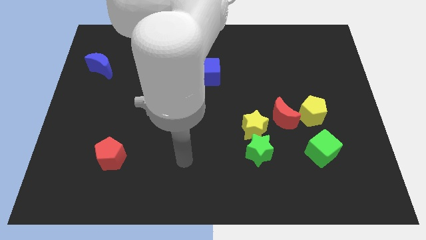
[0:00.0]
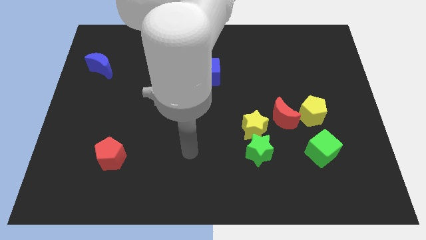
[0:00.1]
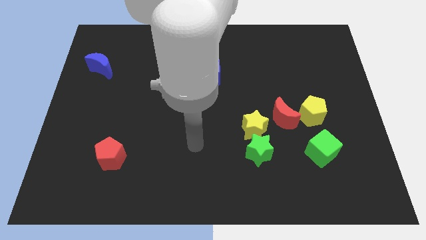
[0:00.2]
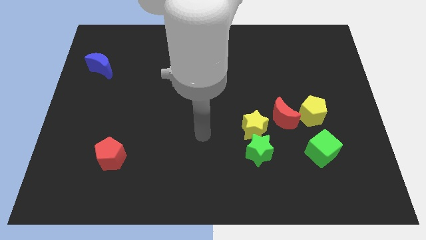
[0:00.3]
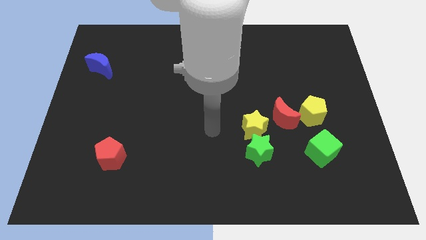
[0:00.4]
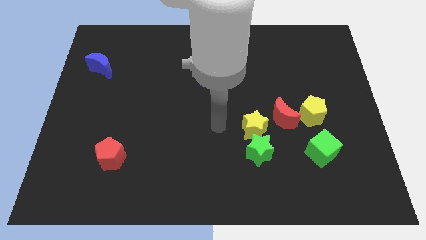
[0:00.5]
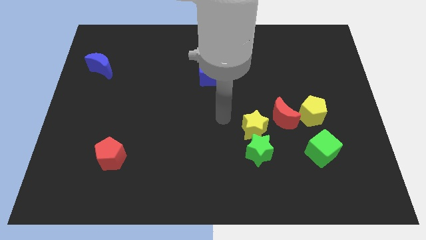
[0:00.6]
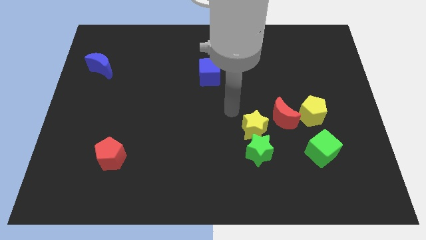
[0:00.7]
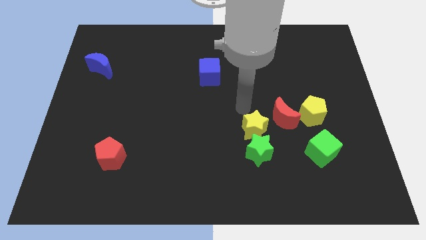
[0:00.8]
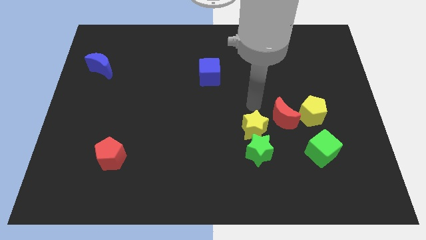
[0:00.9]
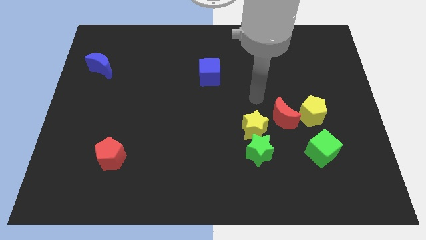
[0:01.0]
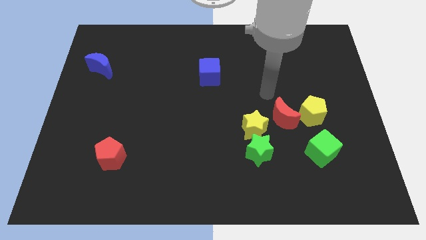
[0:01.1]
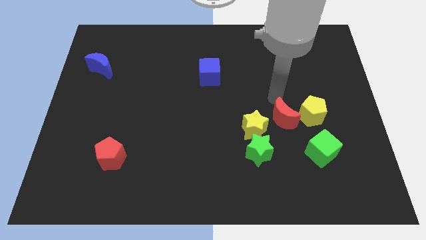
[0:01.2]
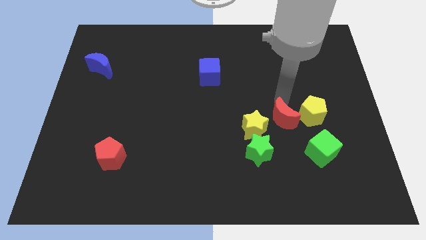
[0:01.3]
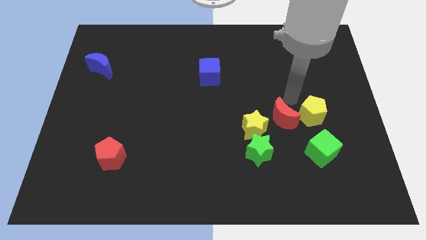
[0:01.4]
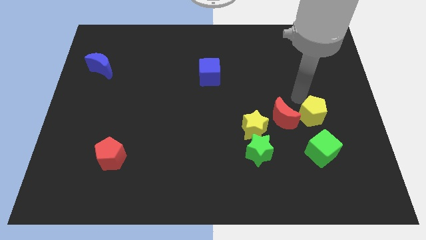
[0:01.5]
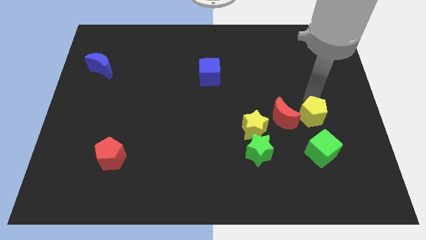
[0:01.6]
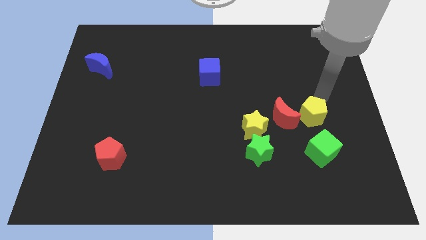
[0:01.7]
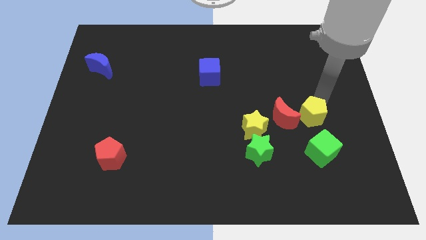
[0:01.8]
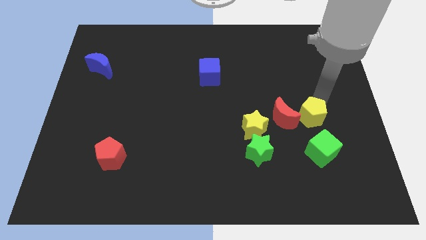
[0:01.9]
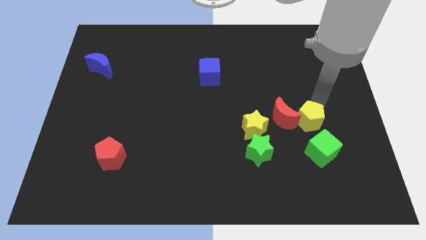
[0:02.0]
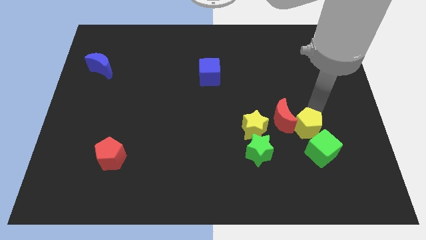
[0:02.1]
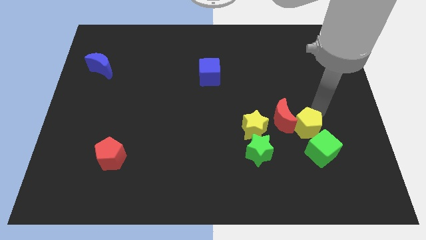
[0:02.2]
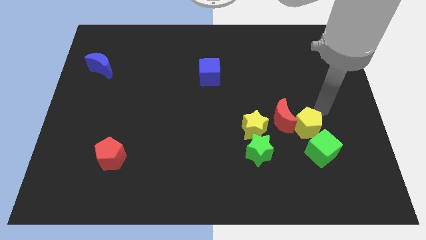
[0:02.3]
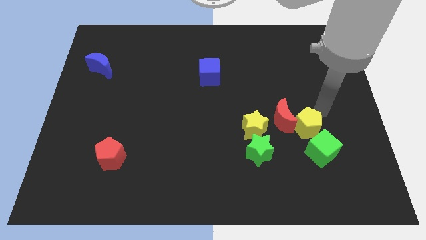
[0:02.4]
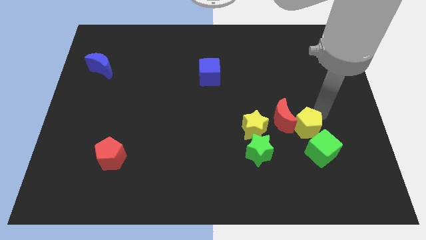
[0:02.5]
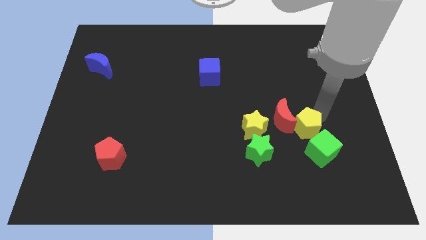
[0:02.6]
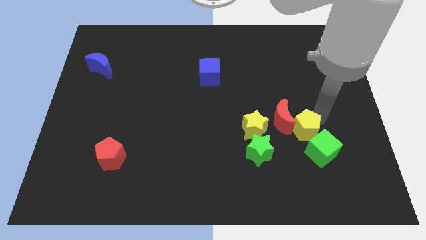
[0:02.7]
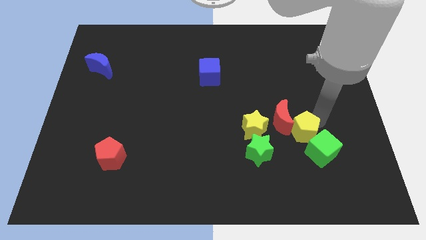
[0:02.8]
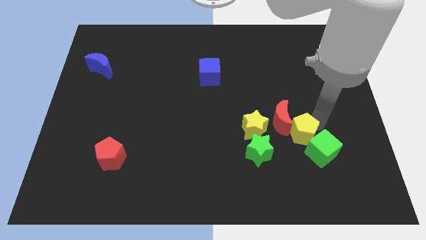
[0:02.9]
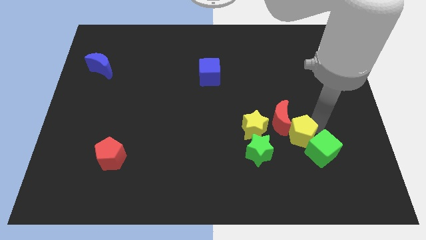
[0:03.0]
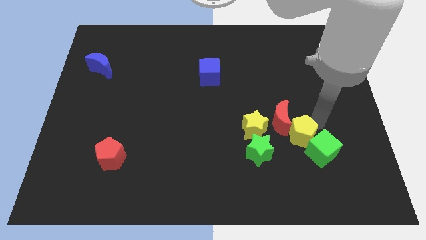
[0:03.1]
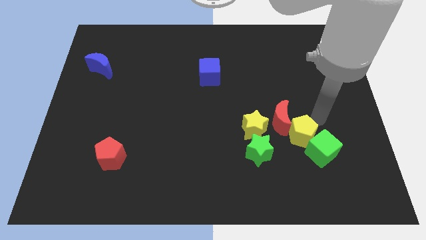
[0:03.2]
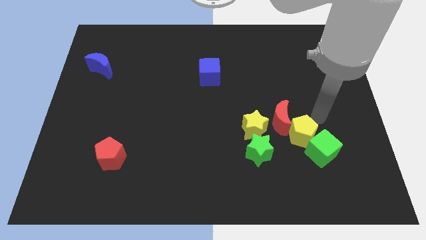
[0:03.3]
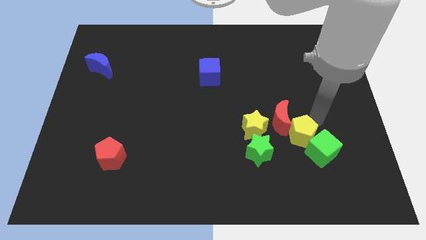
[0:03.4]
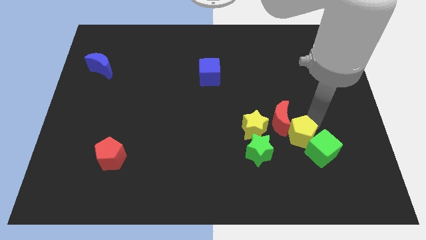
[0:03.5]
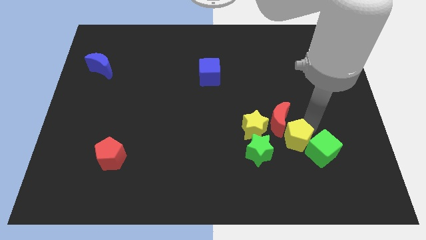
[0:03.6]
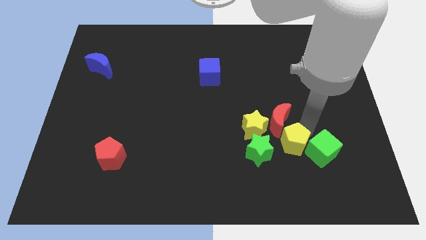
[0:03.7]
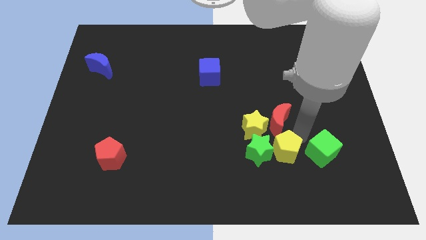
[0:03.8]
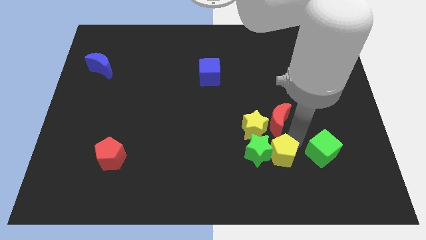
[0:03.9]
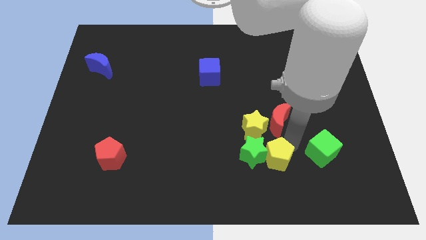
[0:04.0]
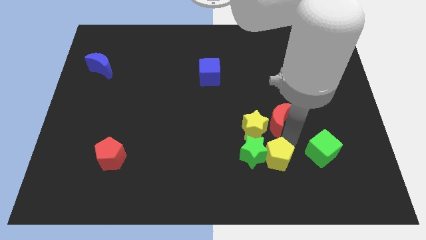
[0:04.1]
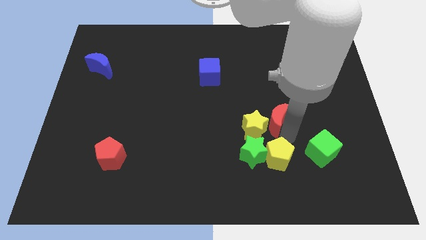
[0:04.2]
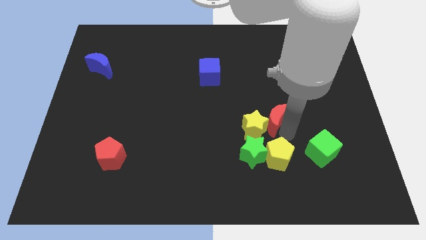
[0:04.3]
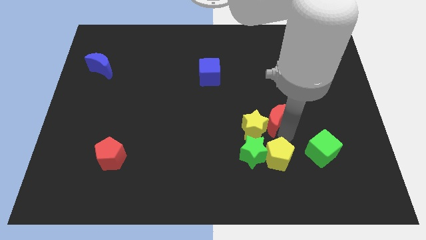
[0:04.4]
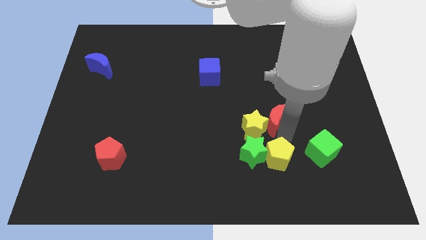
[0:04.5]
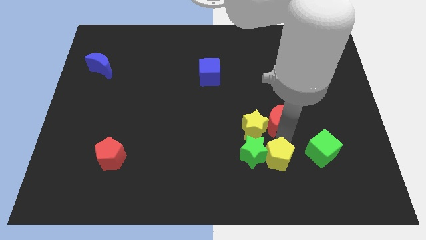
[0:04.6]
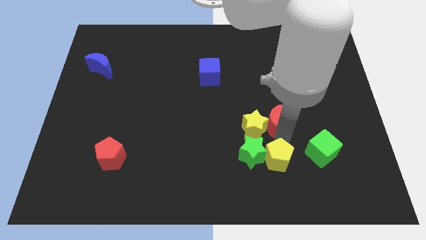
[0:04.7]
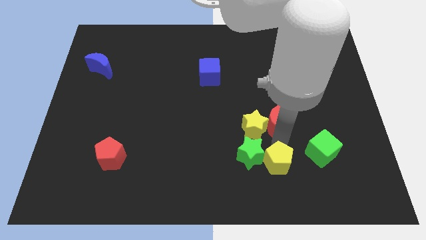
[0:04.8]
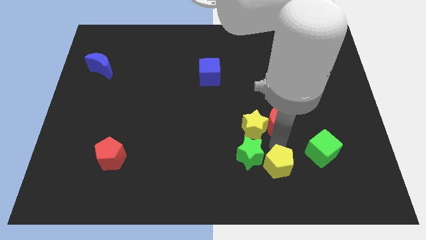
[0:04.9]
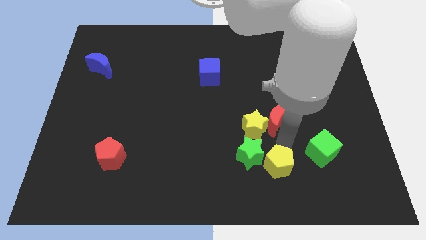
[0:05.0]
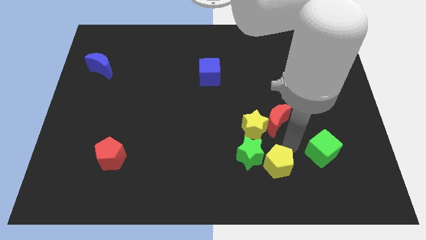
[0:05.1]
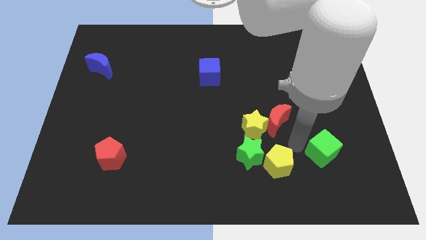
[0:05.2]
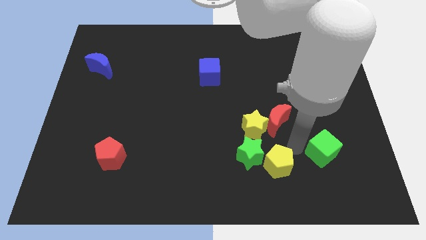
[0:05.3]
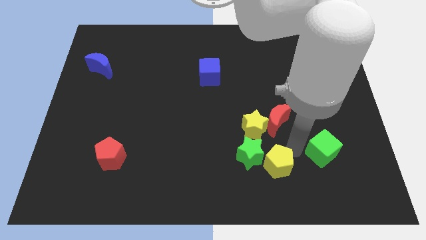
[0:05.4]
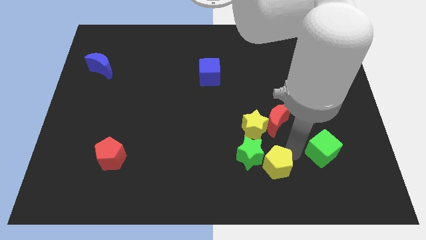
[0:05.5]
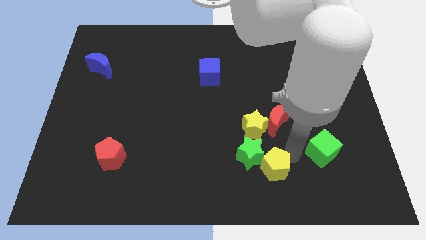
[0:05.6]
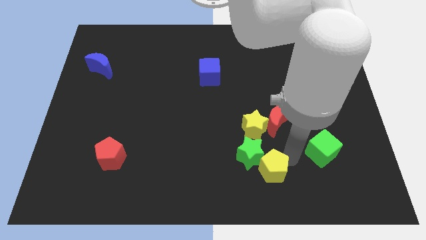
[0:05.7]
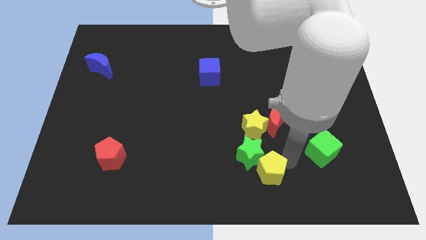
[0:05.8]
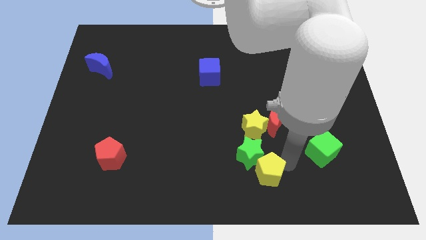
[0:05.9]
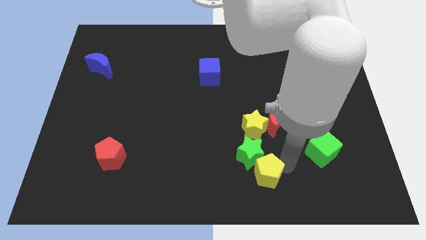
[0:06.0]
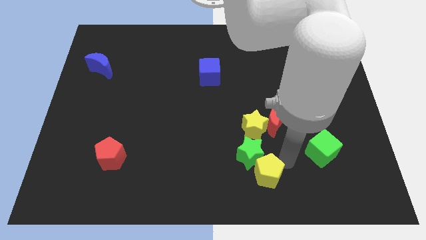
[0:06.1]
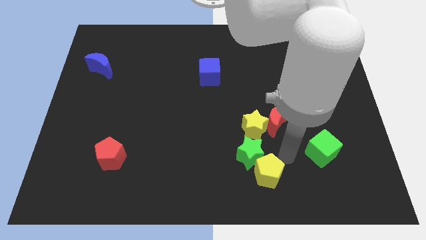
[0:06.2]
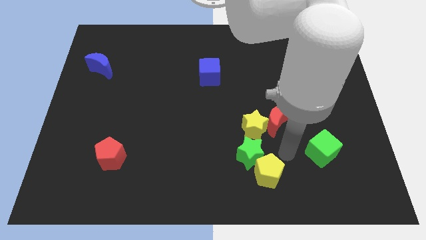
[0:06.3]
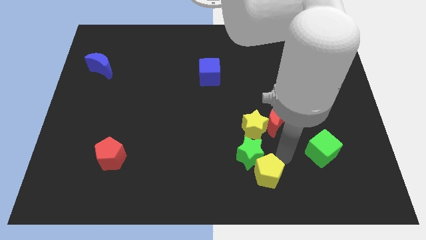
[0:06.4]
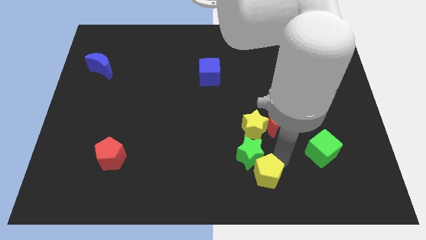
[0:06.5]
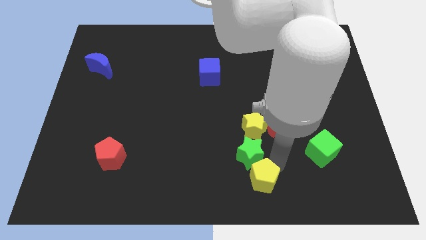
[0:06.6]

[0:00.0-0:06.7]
move the yellow pentagon to the bottom side
